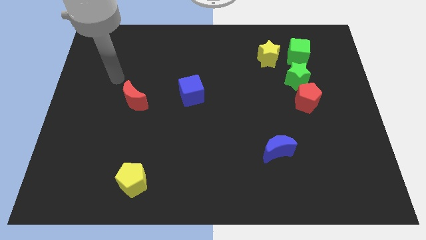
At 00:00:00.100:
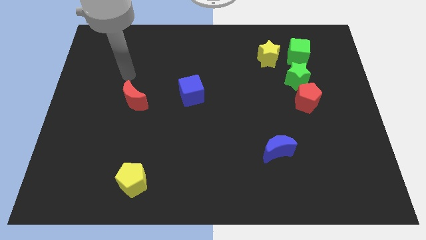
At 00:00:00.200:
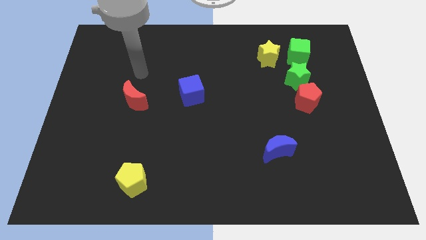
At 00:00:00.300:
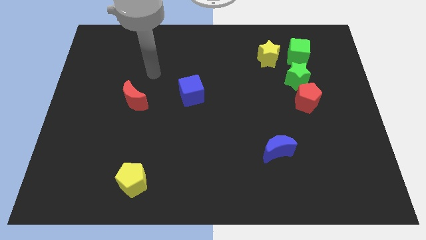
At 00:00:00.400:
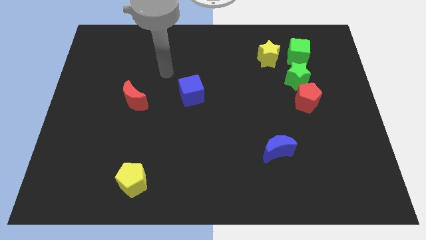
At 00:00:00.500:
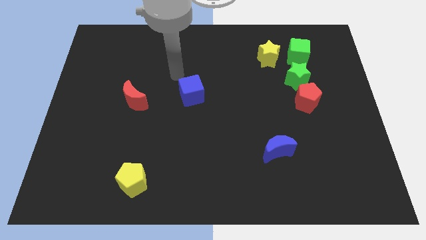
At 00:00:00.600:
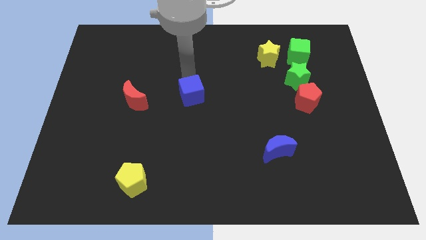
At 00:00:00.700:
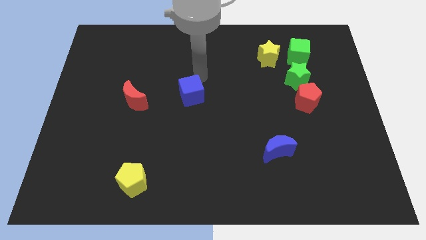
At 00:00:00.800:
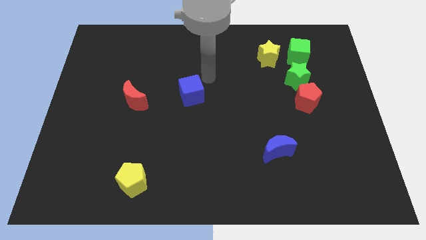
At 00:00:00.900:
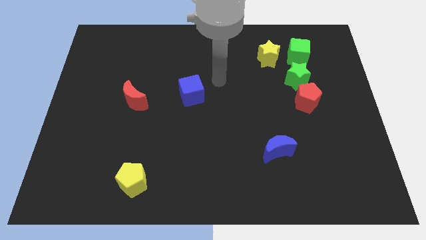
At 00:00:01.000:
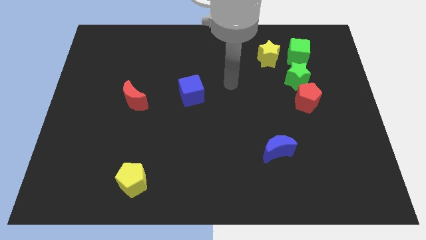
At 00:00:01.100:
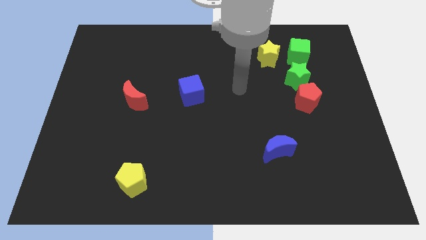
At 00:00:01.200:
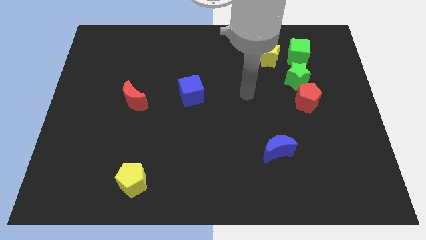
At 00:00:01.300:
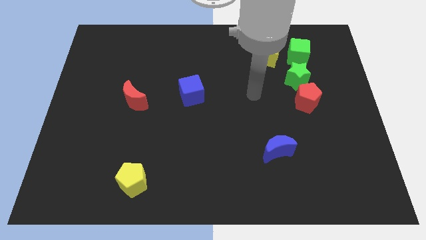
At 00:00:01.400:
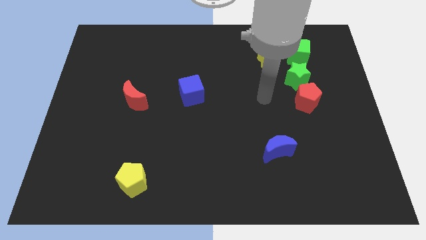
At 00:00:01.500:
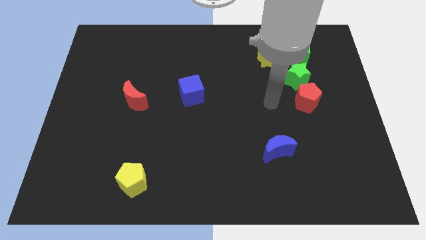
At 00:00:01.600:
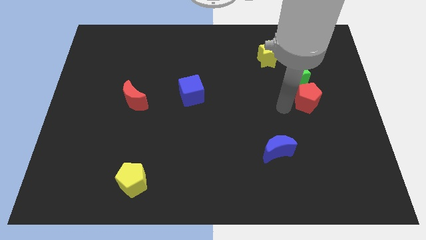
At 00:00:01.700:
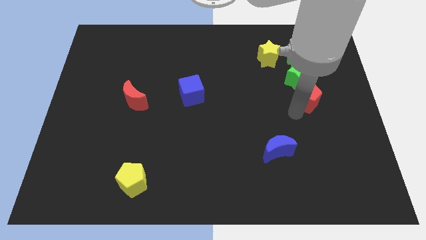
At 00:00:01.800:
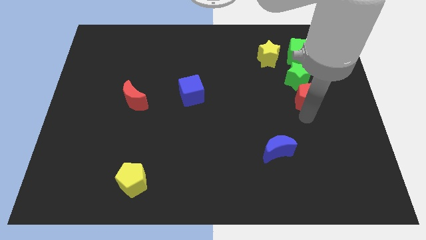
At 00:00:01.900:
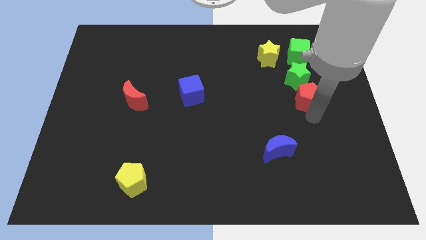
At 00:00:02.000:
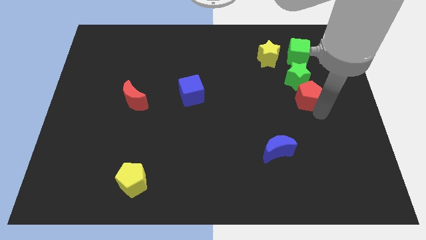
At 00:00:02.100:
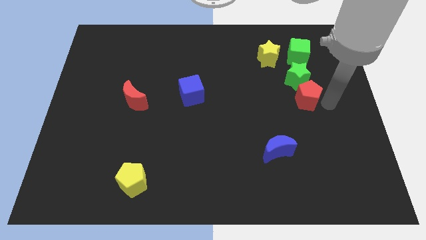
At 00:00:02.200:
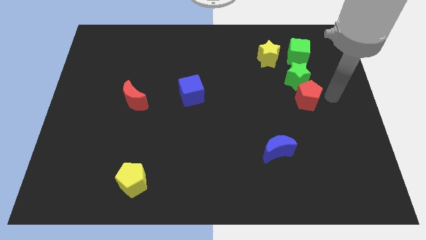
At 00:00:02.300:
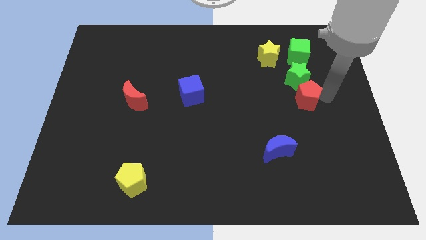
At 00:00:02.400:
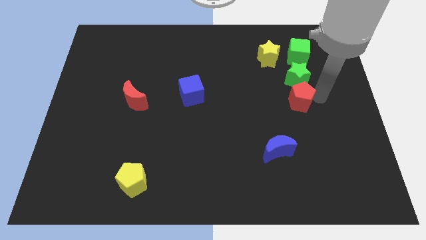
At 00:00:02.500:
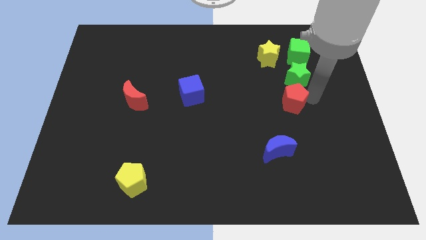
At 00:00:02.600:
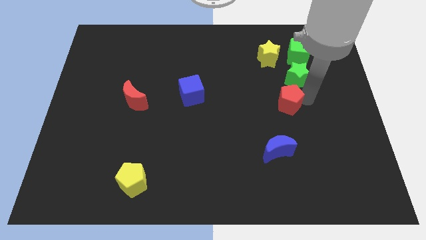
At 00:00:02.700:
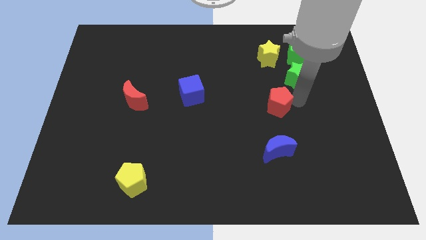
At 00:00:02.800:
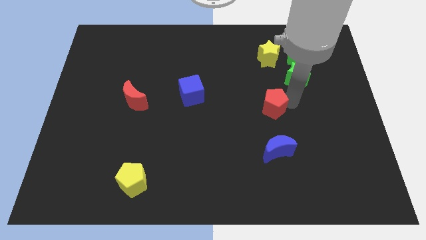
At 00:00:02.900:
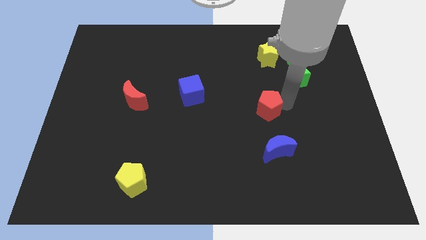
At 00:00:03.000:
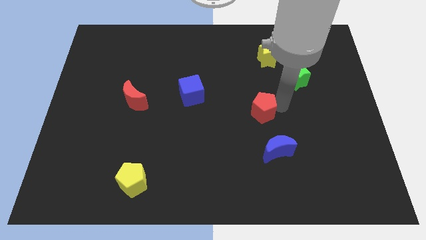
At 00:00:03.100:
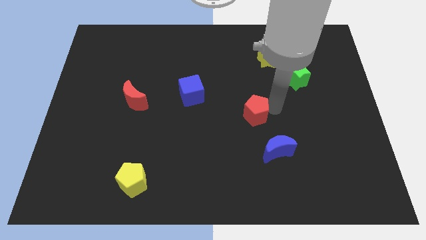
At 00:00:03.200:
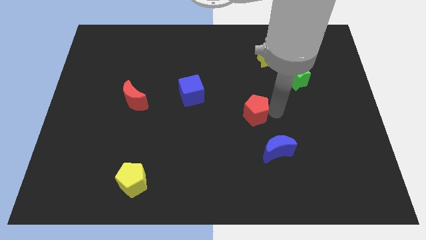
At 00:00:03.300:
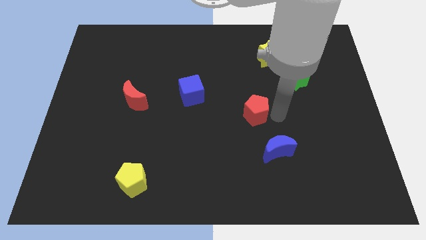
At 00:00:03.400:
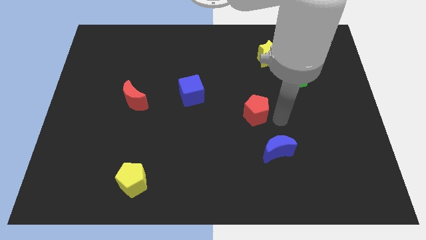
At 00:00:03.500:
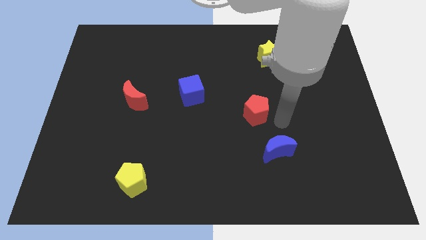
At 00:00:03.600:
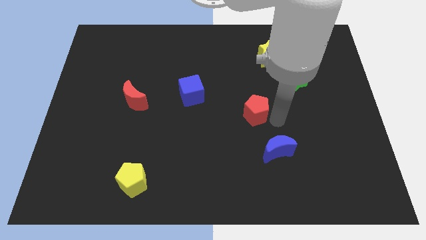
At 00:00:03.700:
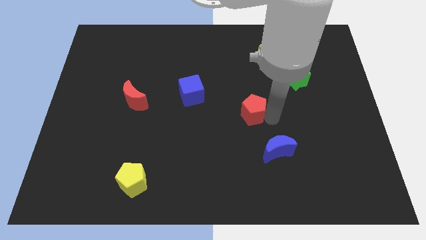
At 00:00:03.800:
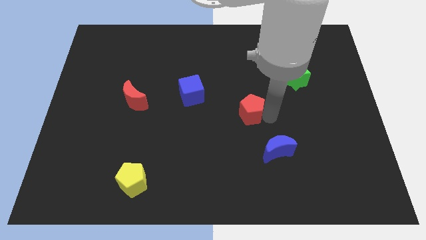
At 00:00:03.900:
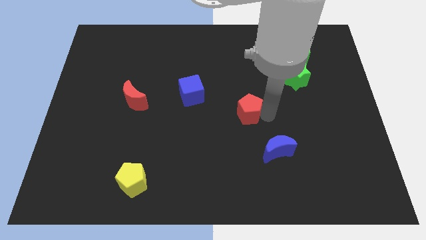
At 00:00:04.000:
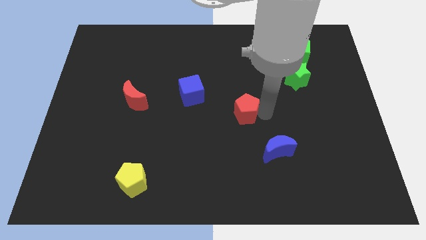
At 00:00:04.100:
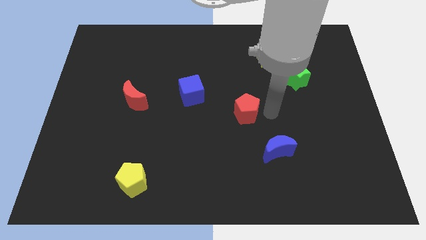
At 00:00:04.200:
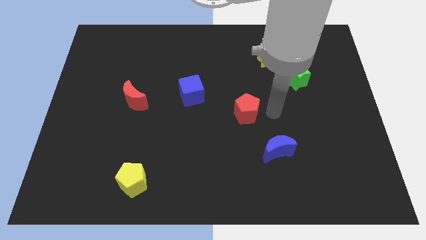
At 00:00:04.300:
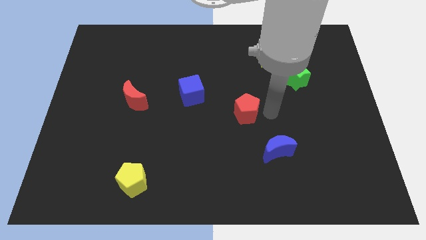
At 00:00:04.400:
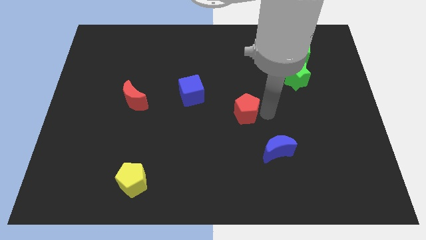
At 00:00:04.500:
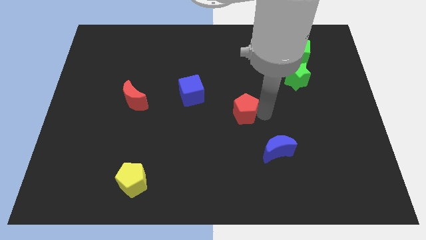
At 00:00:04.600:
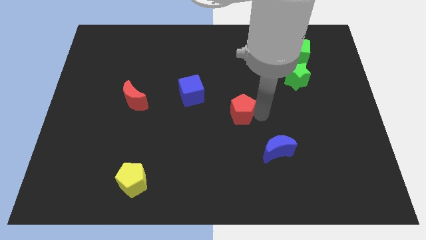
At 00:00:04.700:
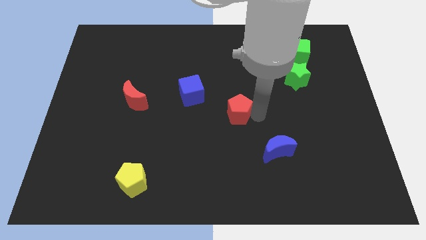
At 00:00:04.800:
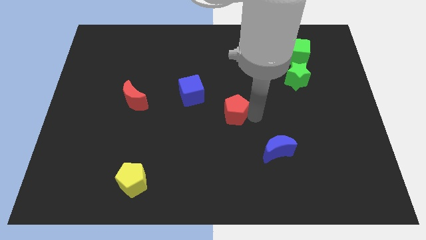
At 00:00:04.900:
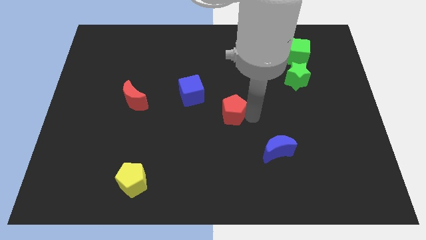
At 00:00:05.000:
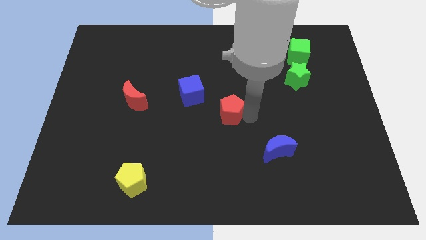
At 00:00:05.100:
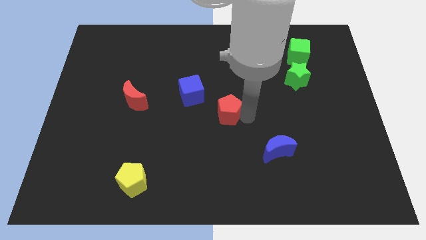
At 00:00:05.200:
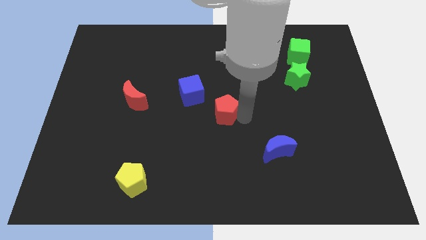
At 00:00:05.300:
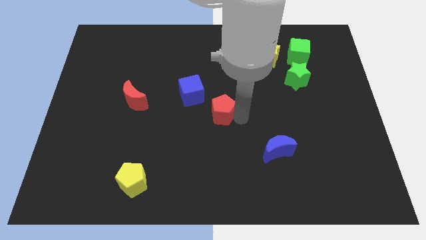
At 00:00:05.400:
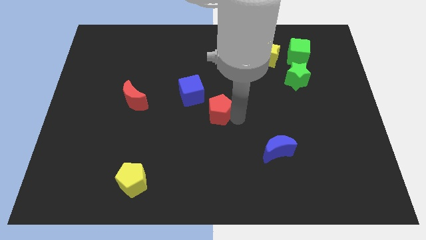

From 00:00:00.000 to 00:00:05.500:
move the red pentagon left

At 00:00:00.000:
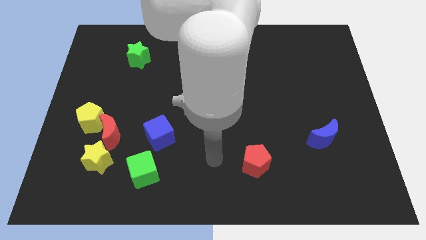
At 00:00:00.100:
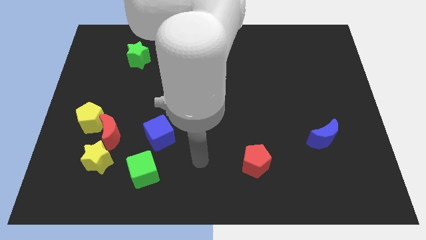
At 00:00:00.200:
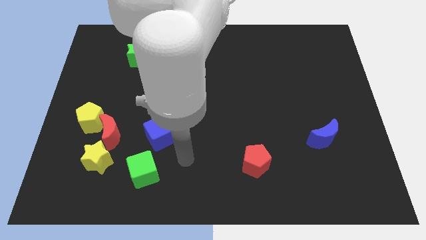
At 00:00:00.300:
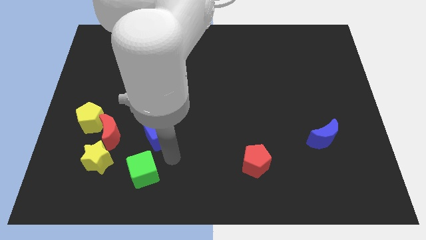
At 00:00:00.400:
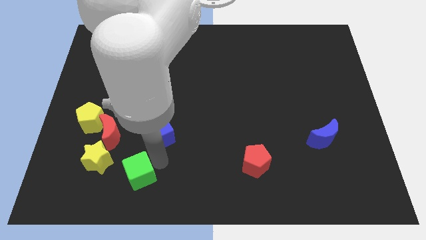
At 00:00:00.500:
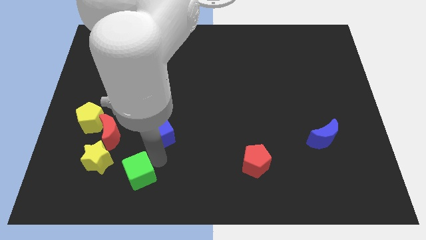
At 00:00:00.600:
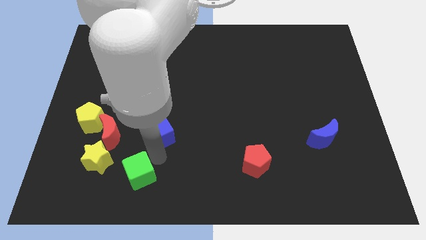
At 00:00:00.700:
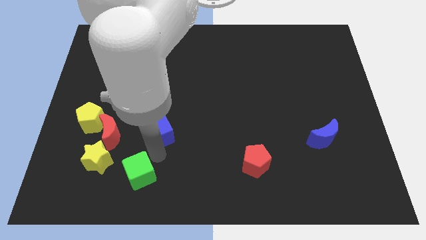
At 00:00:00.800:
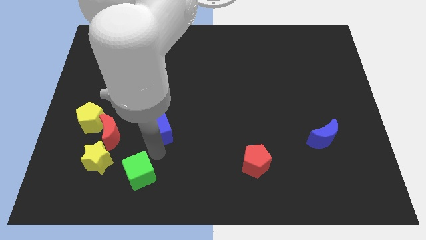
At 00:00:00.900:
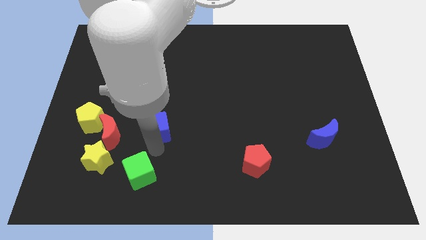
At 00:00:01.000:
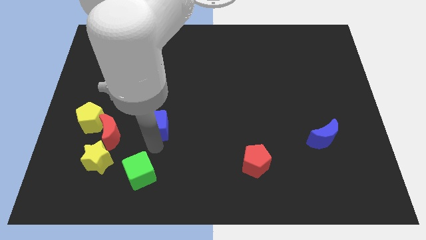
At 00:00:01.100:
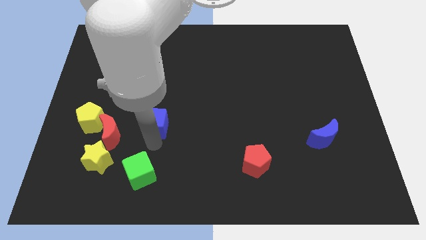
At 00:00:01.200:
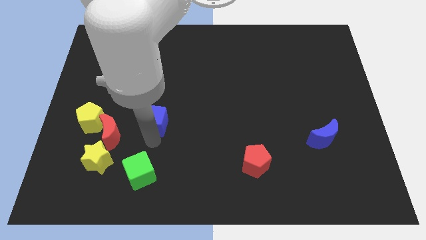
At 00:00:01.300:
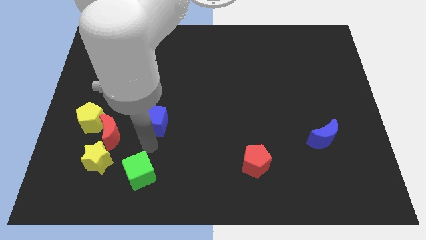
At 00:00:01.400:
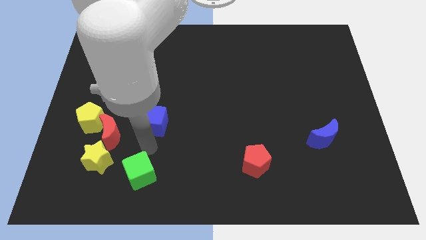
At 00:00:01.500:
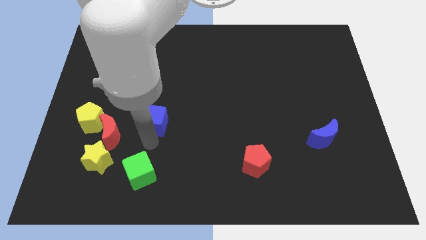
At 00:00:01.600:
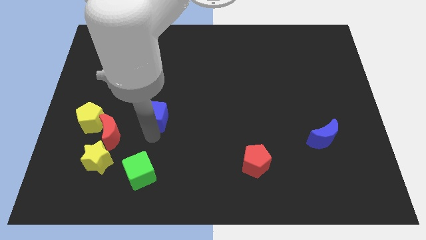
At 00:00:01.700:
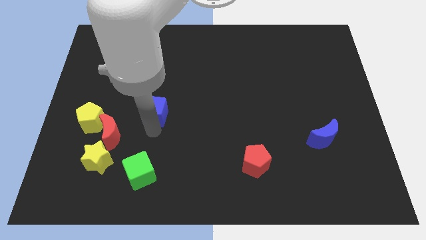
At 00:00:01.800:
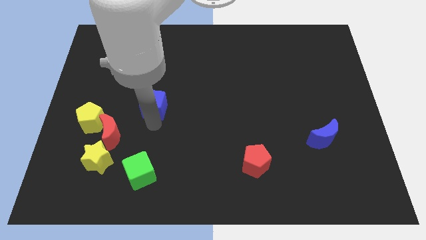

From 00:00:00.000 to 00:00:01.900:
push the blue cube upwards slightly

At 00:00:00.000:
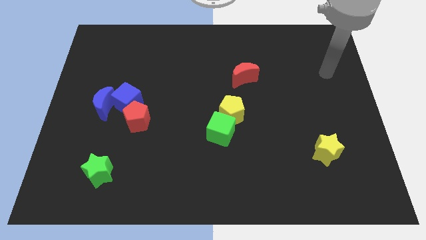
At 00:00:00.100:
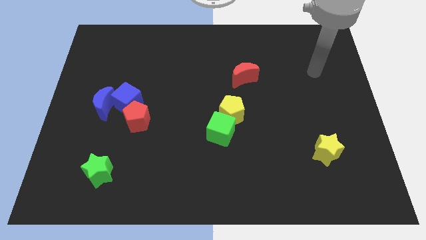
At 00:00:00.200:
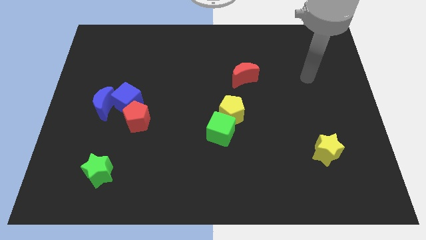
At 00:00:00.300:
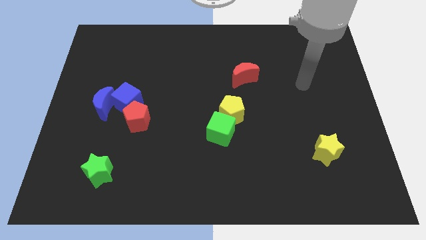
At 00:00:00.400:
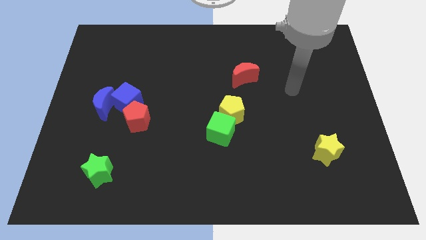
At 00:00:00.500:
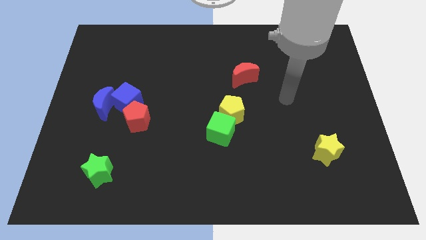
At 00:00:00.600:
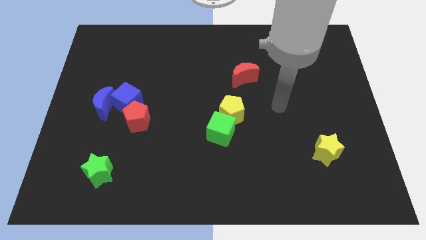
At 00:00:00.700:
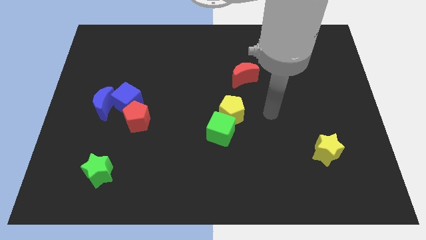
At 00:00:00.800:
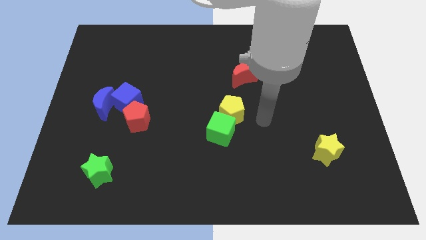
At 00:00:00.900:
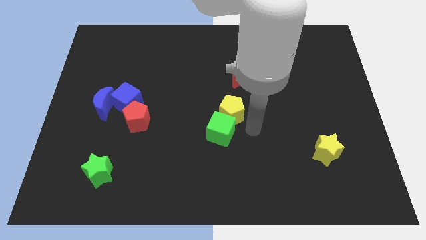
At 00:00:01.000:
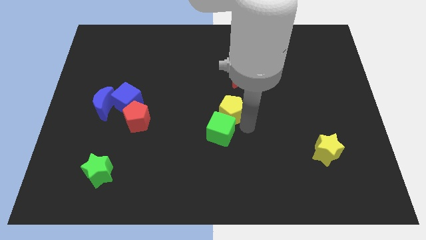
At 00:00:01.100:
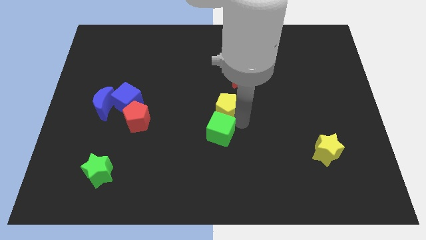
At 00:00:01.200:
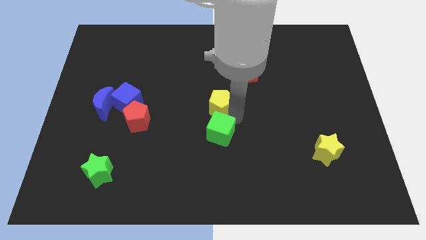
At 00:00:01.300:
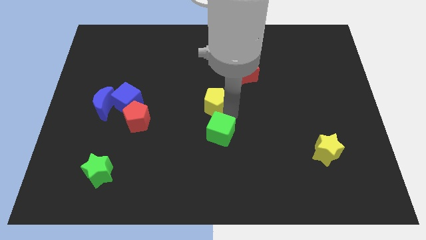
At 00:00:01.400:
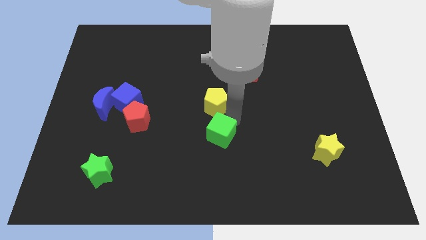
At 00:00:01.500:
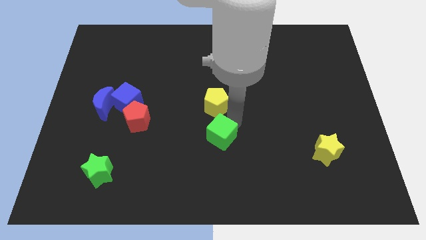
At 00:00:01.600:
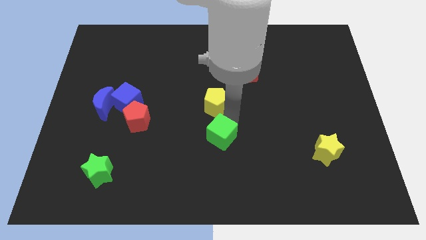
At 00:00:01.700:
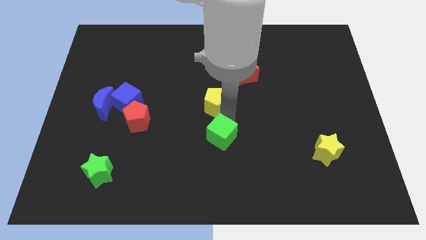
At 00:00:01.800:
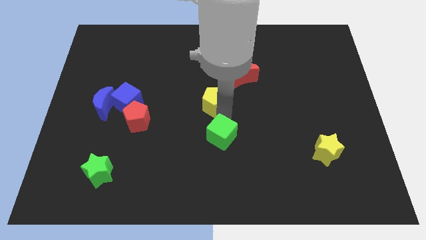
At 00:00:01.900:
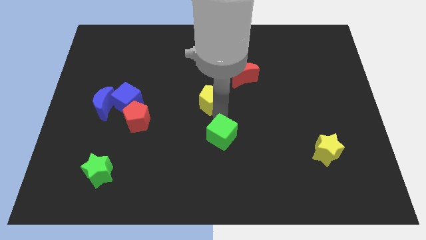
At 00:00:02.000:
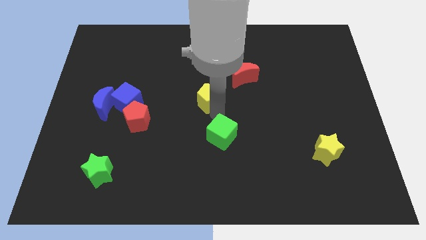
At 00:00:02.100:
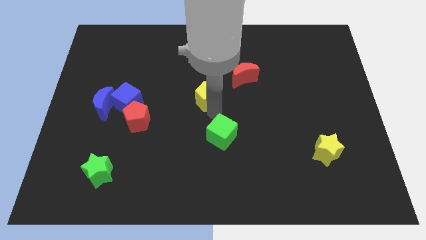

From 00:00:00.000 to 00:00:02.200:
push the yellow pentagon somewhat upwards and to the left diagonally
